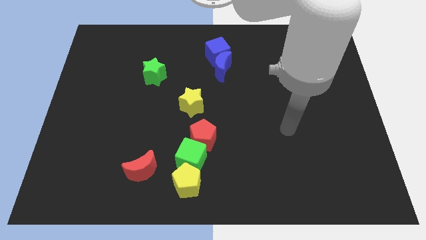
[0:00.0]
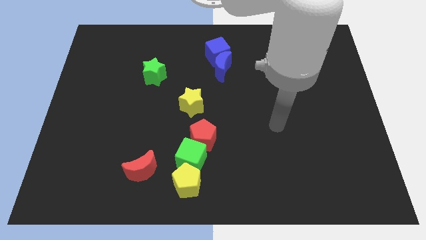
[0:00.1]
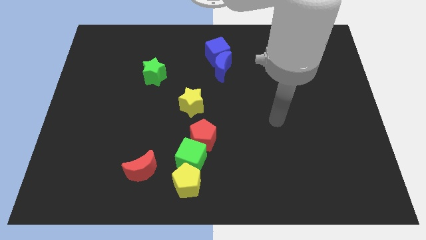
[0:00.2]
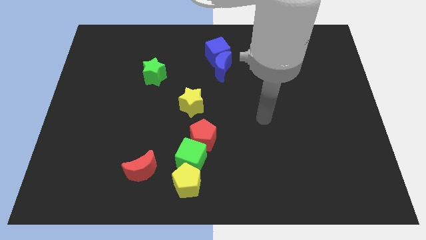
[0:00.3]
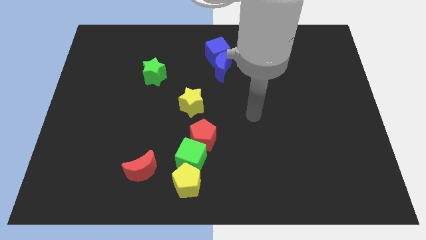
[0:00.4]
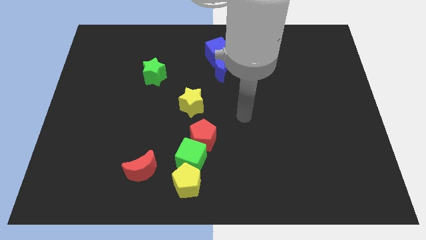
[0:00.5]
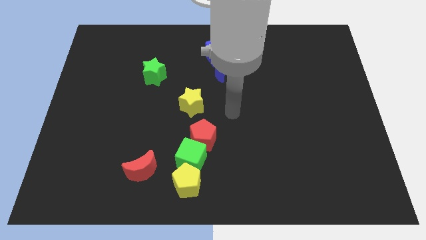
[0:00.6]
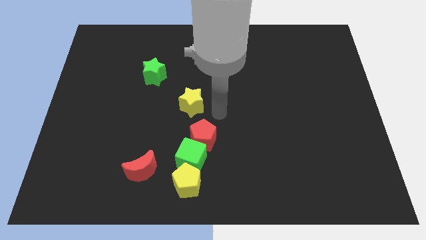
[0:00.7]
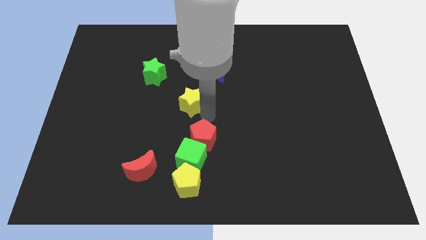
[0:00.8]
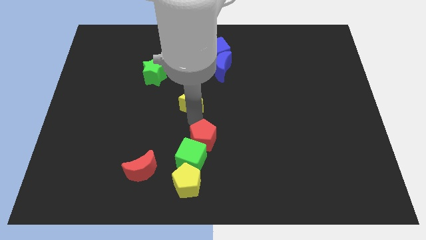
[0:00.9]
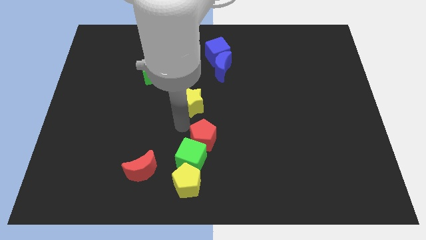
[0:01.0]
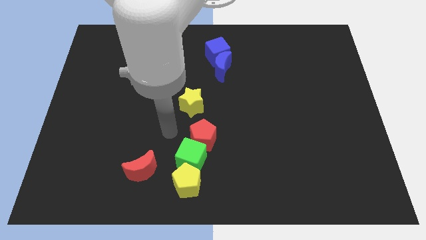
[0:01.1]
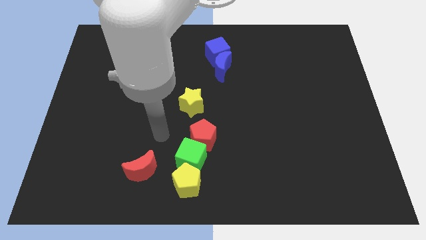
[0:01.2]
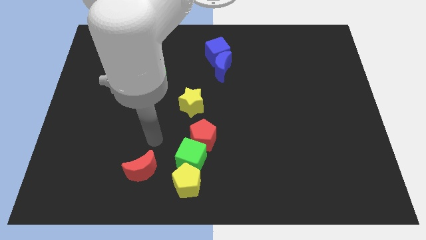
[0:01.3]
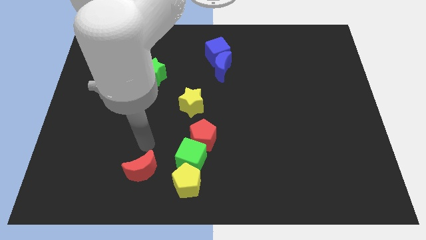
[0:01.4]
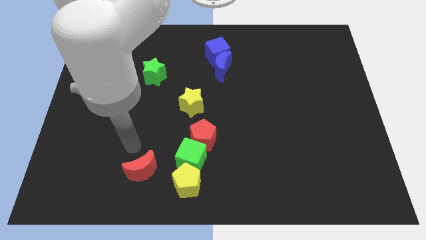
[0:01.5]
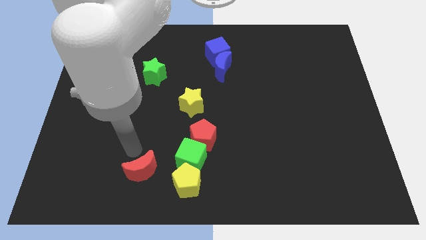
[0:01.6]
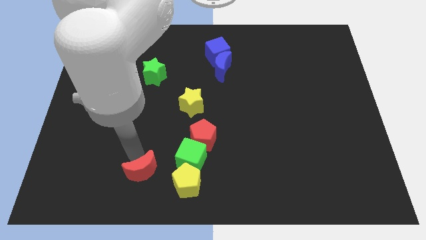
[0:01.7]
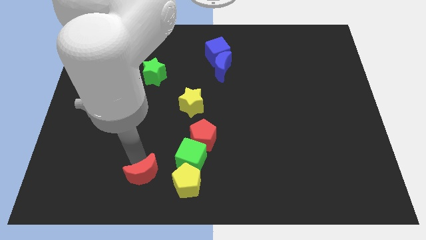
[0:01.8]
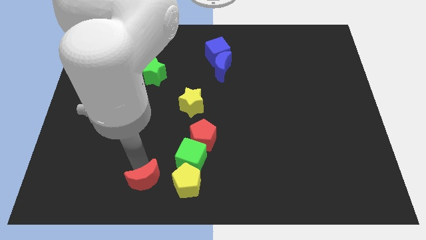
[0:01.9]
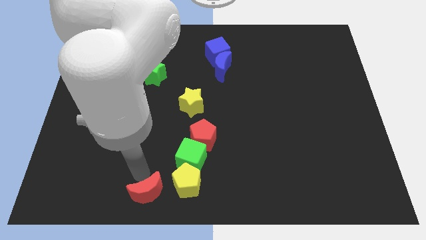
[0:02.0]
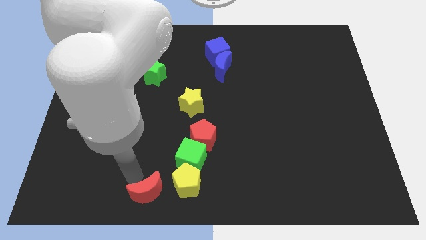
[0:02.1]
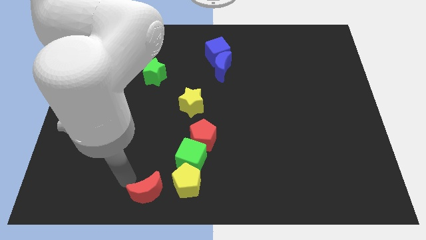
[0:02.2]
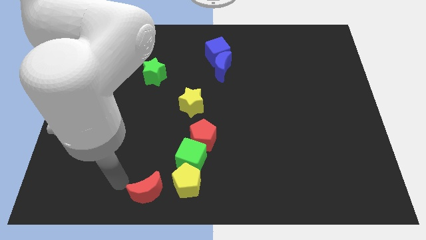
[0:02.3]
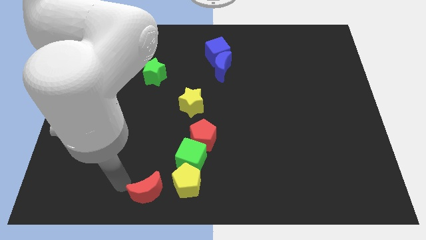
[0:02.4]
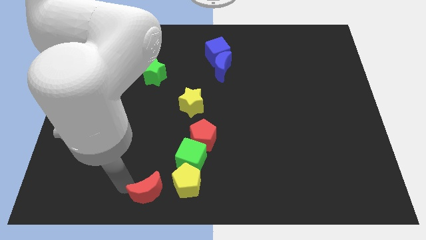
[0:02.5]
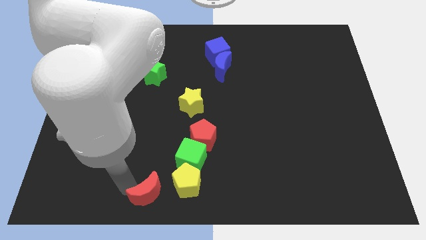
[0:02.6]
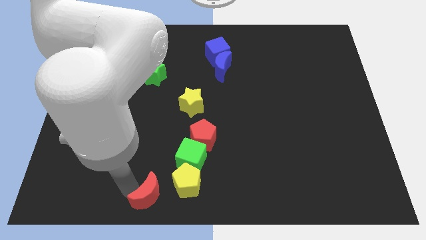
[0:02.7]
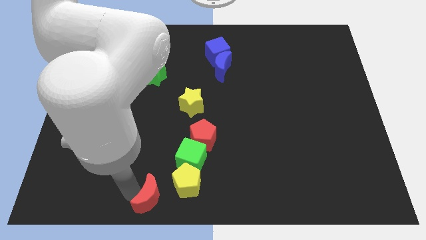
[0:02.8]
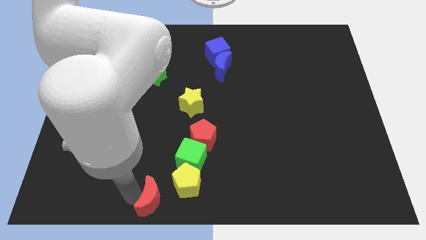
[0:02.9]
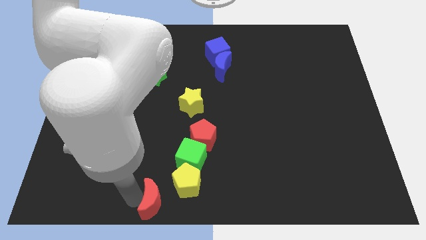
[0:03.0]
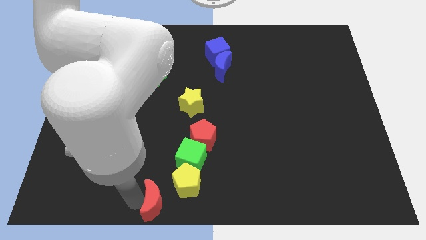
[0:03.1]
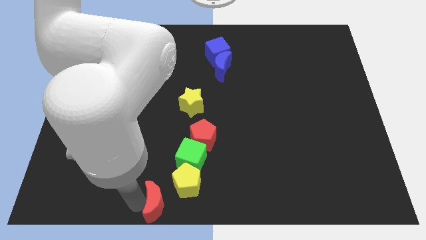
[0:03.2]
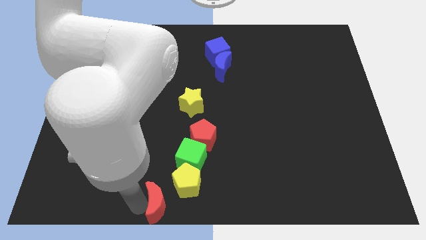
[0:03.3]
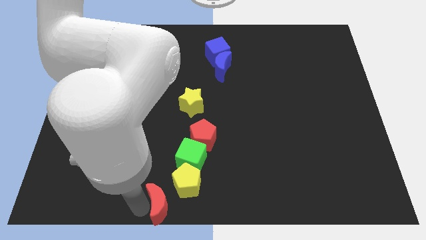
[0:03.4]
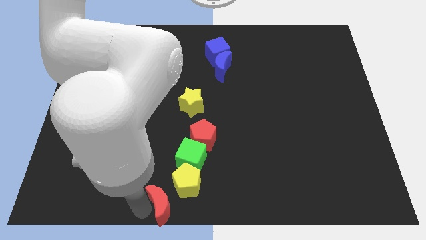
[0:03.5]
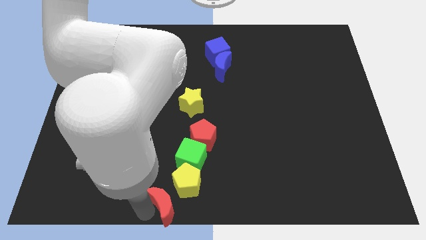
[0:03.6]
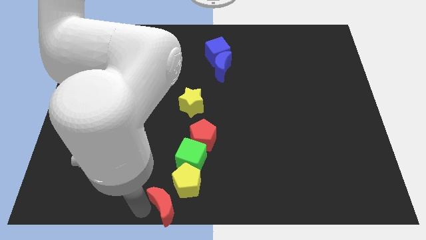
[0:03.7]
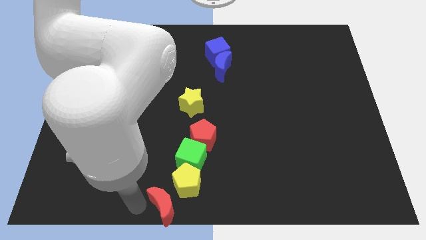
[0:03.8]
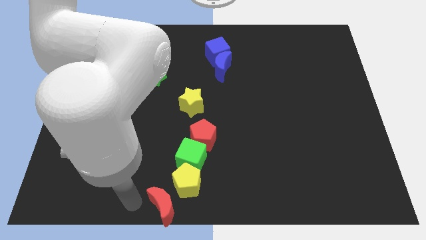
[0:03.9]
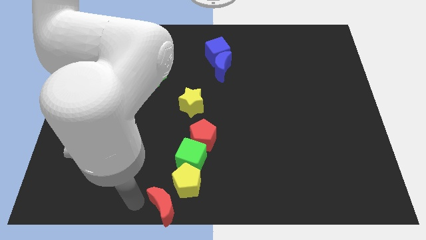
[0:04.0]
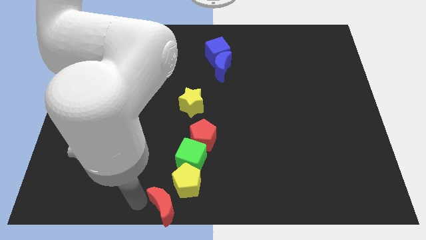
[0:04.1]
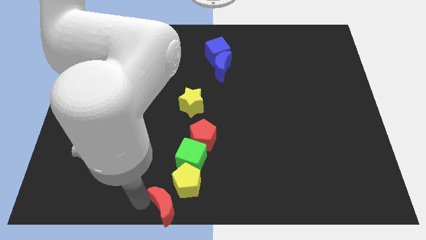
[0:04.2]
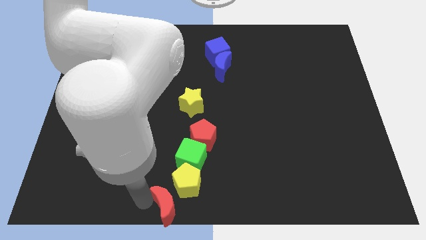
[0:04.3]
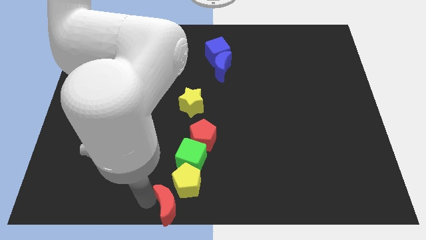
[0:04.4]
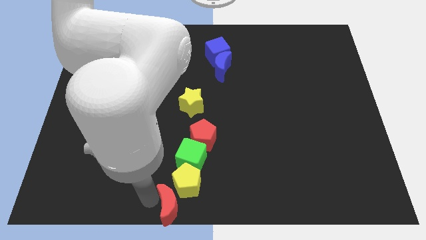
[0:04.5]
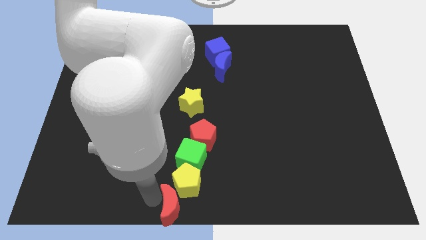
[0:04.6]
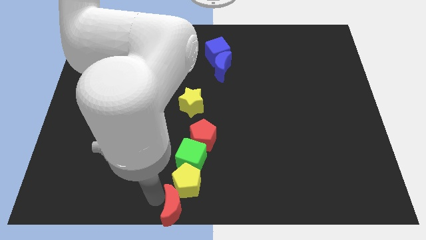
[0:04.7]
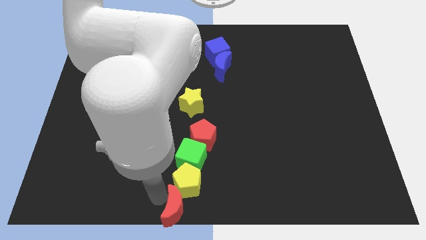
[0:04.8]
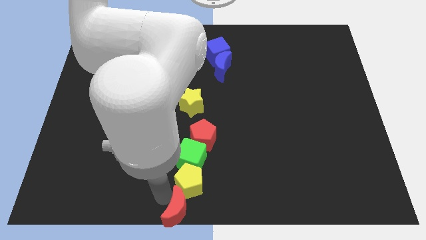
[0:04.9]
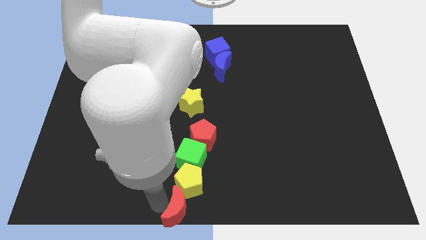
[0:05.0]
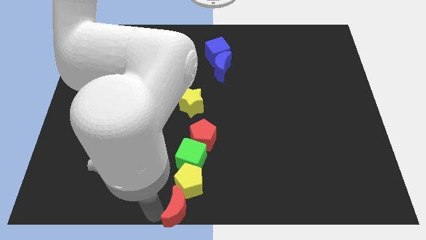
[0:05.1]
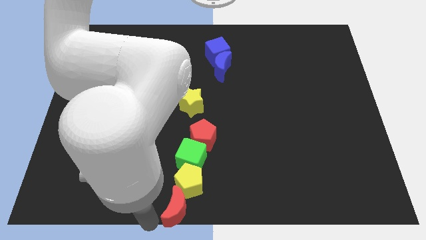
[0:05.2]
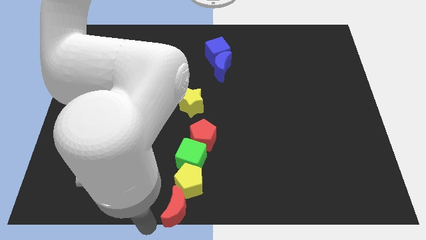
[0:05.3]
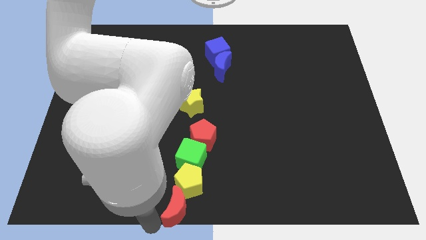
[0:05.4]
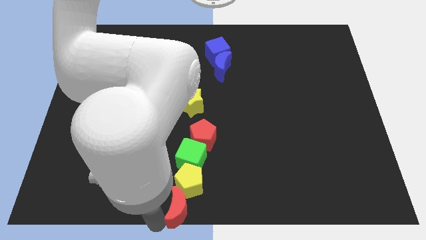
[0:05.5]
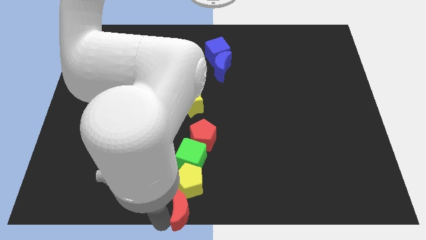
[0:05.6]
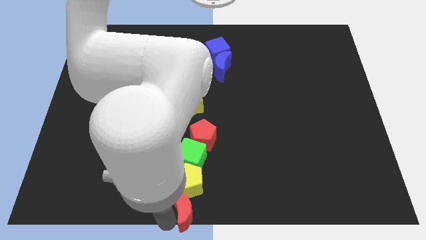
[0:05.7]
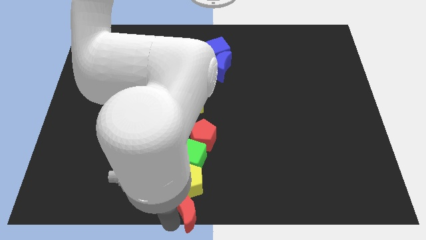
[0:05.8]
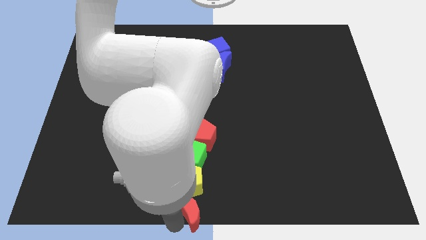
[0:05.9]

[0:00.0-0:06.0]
move the red moon right somewhat

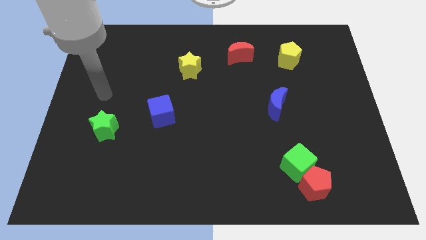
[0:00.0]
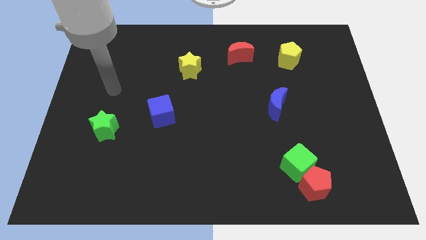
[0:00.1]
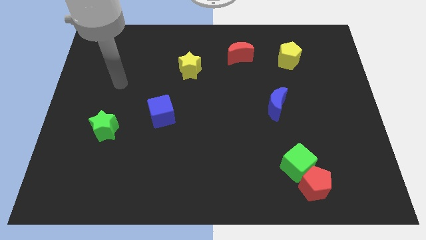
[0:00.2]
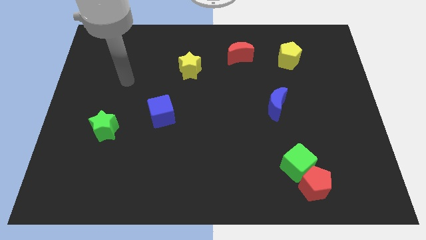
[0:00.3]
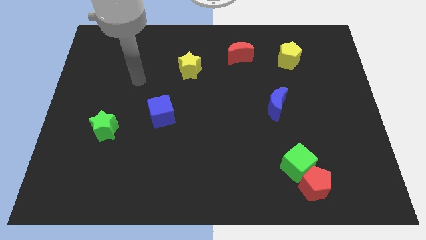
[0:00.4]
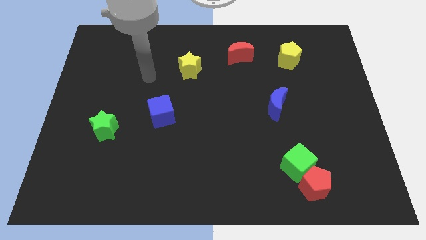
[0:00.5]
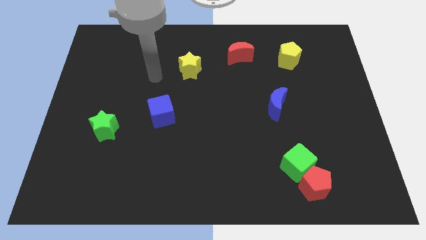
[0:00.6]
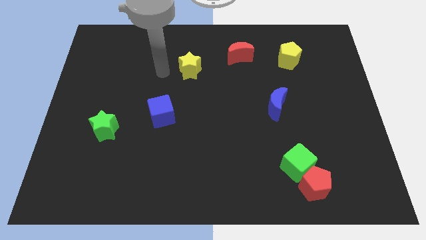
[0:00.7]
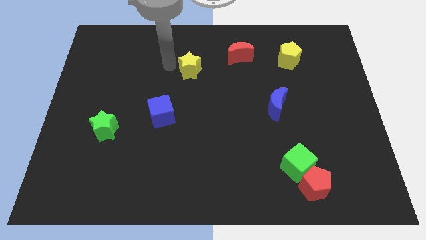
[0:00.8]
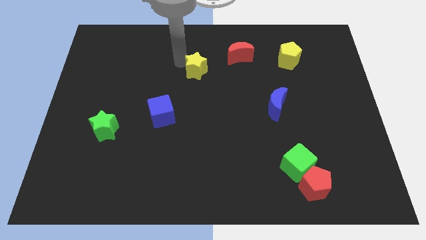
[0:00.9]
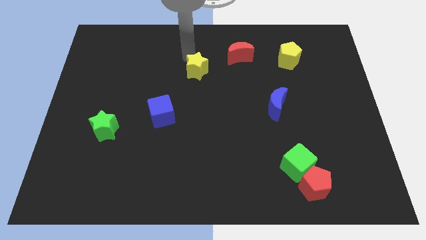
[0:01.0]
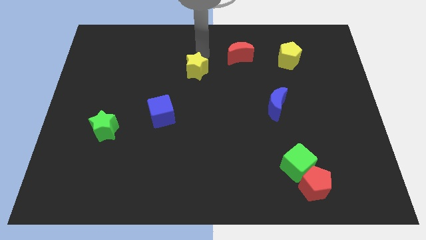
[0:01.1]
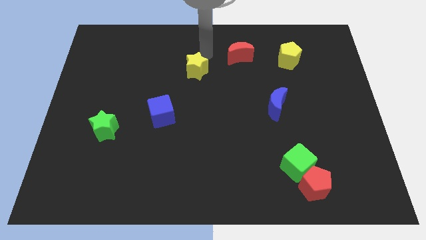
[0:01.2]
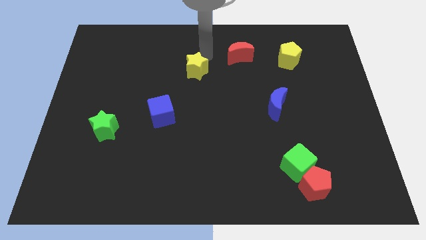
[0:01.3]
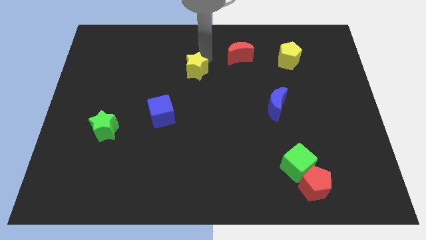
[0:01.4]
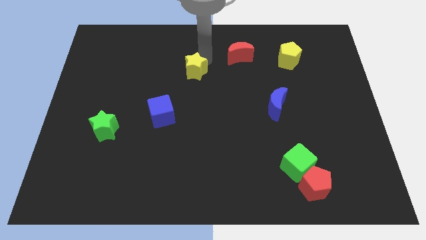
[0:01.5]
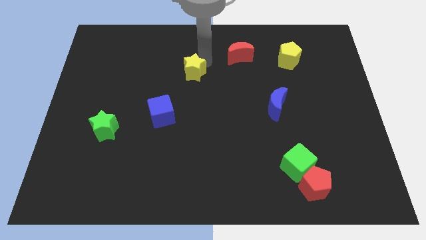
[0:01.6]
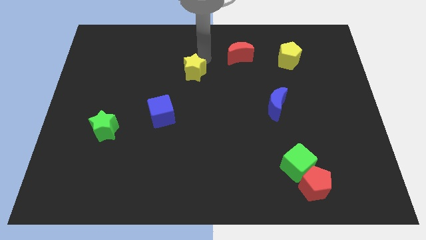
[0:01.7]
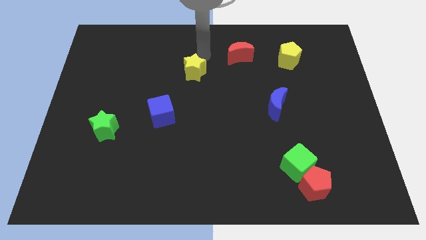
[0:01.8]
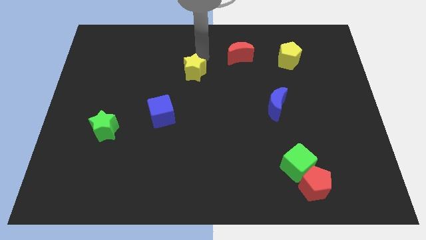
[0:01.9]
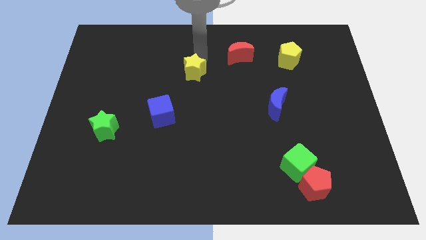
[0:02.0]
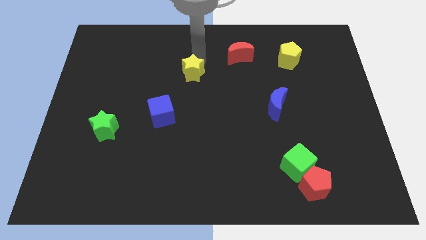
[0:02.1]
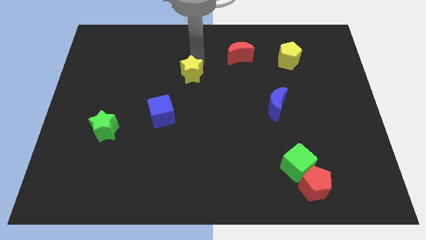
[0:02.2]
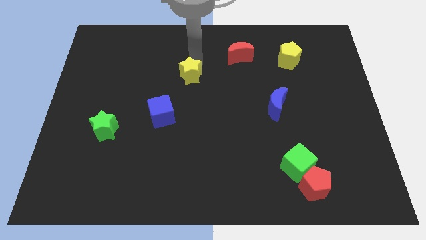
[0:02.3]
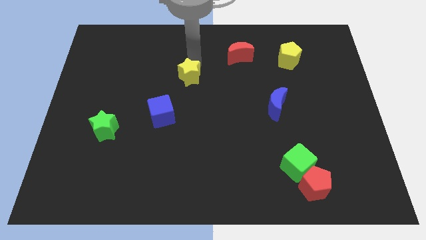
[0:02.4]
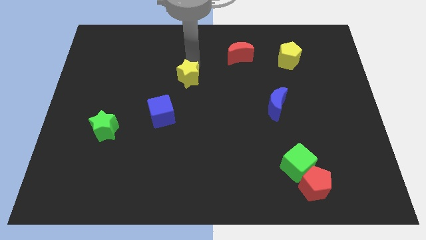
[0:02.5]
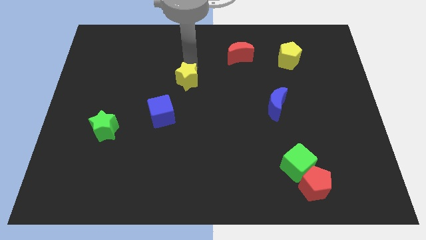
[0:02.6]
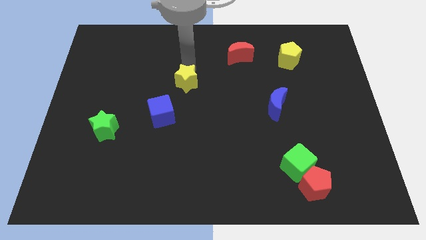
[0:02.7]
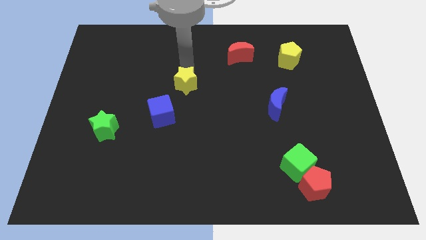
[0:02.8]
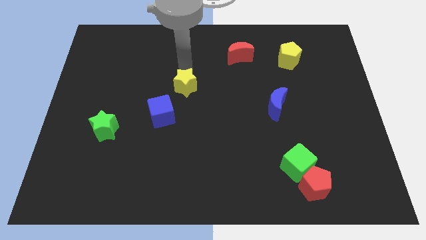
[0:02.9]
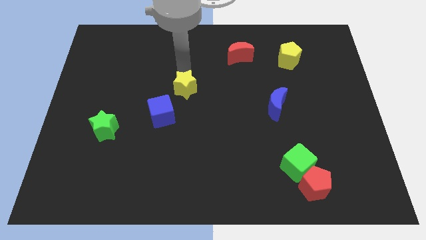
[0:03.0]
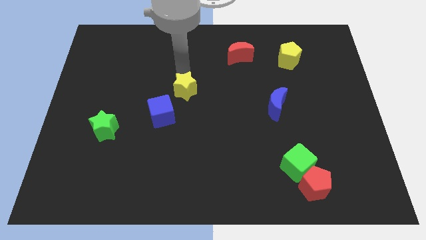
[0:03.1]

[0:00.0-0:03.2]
push the yellow star somewhat down
